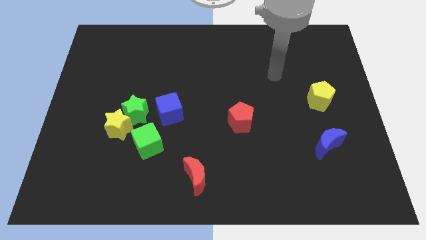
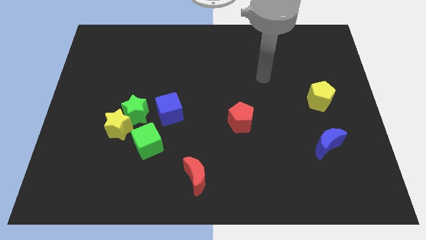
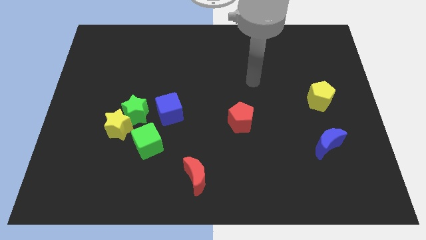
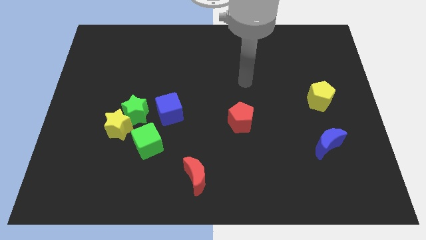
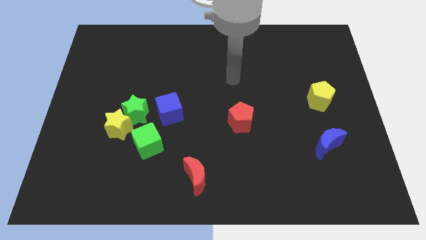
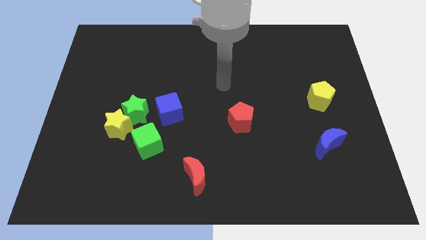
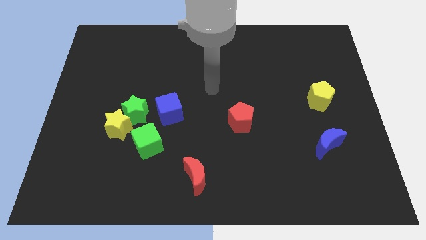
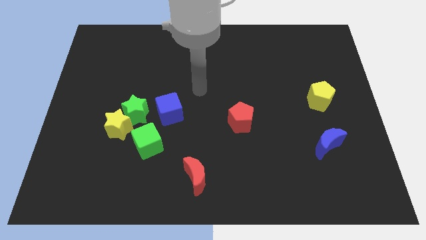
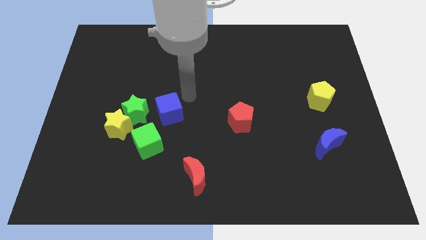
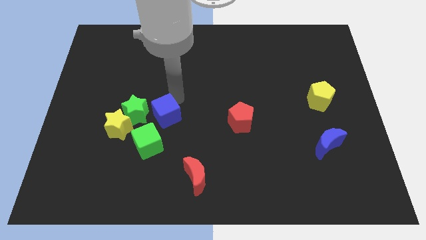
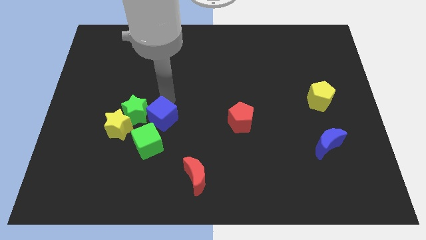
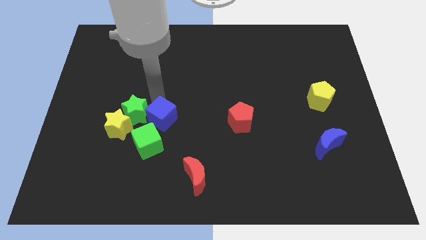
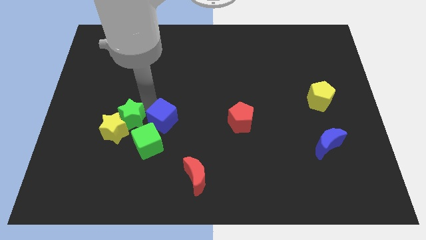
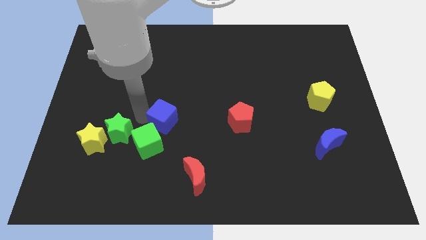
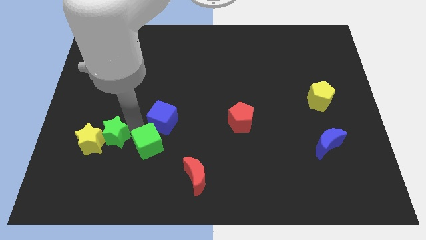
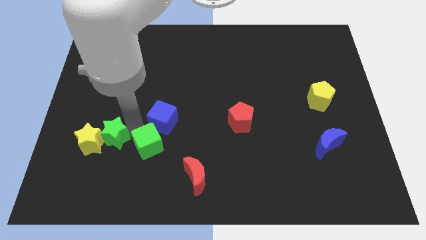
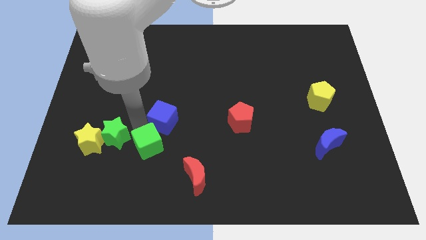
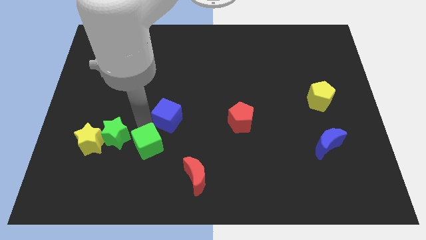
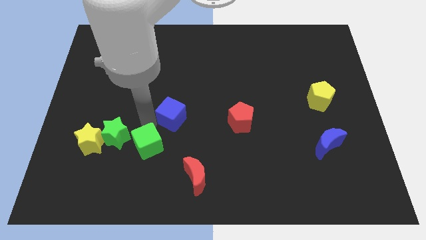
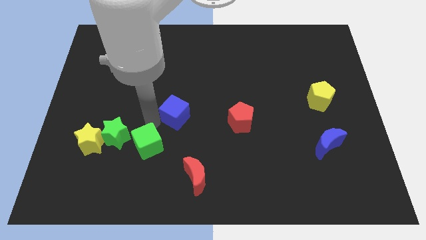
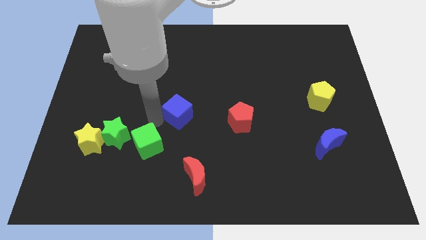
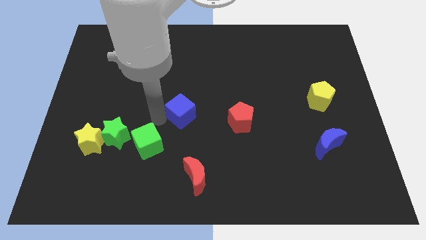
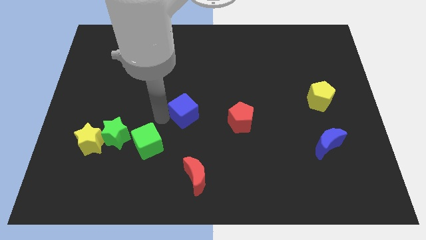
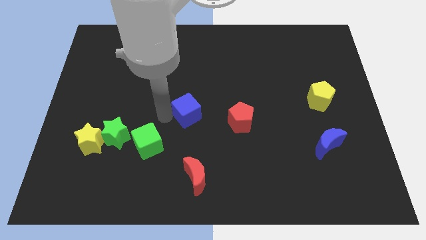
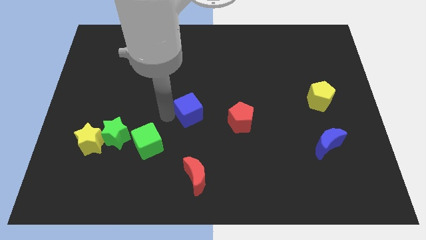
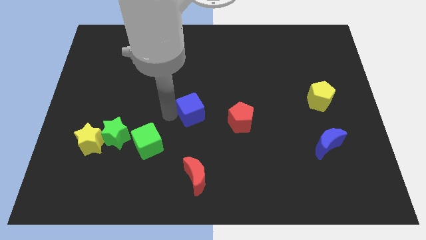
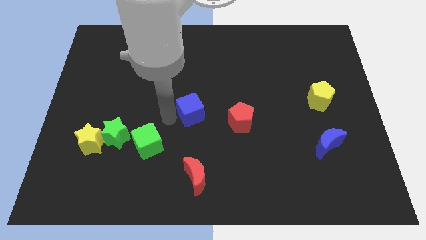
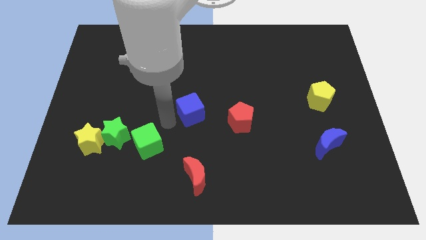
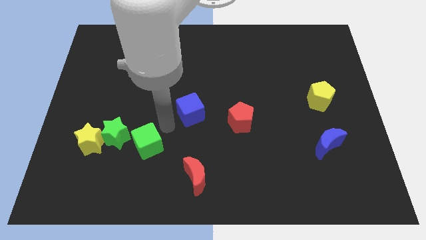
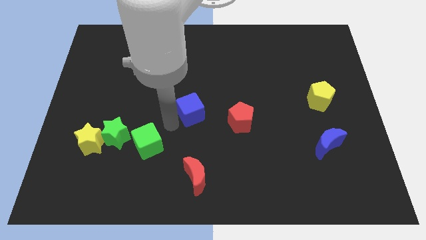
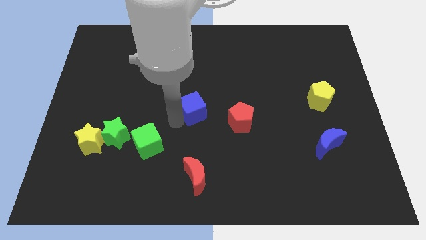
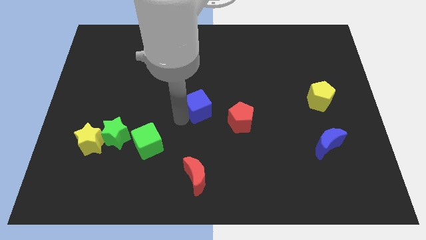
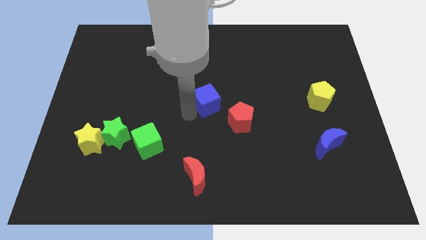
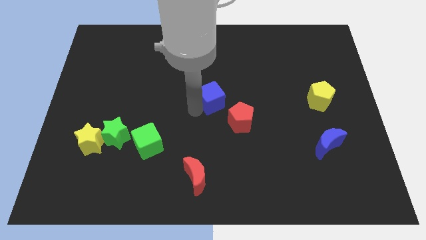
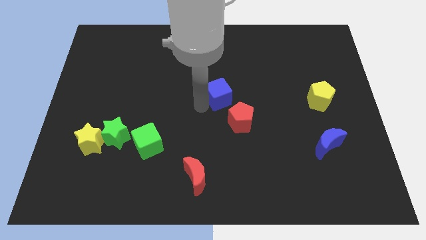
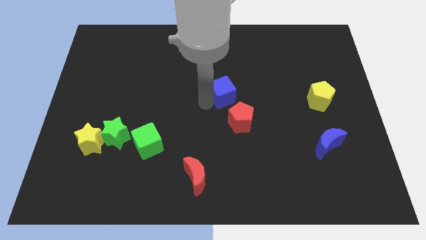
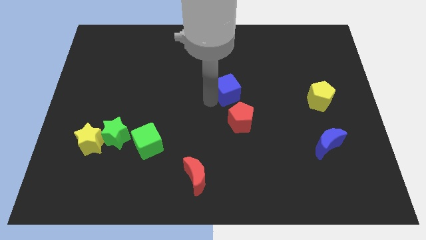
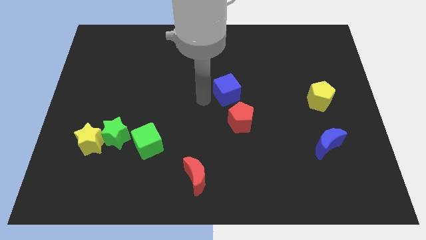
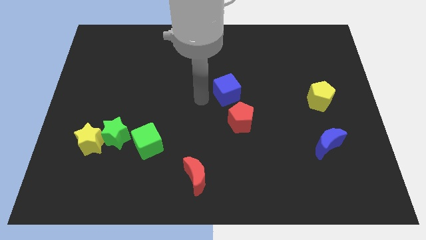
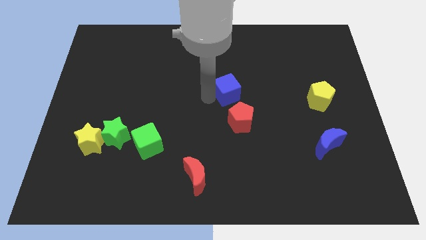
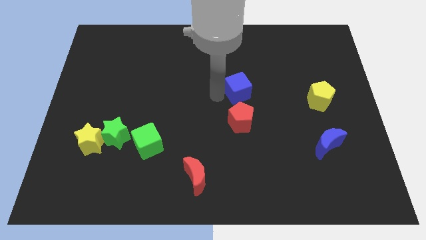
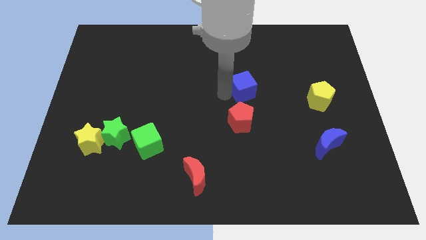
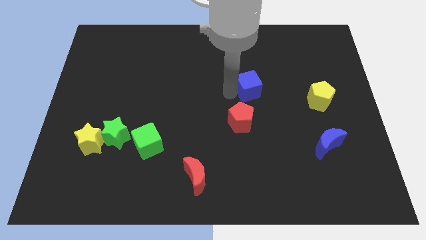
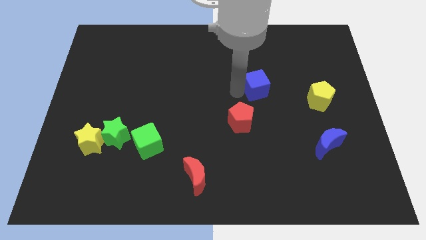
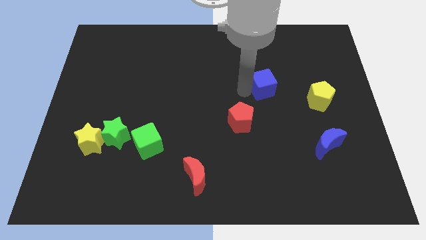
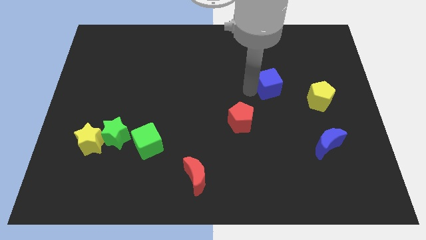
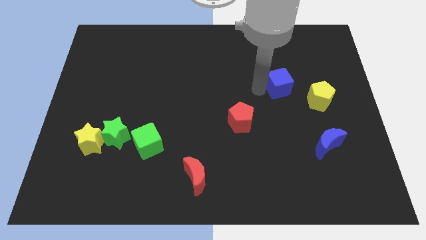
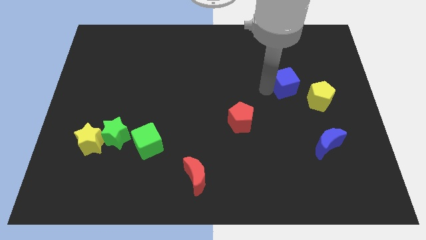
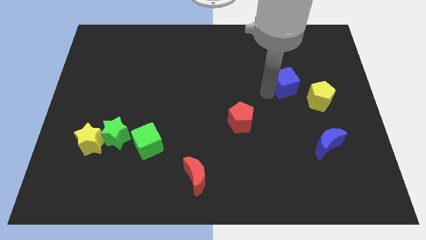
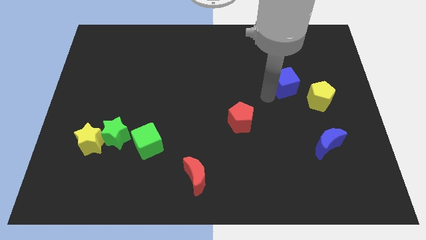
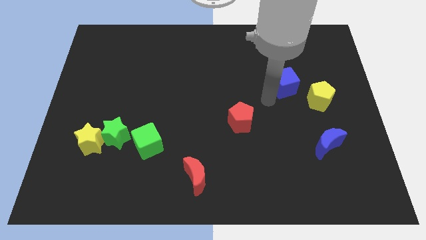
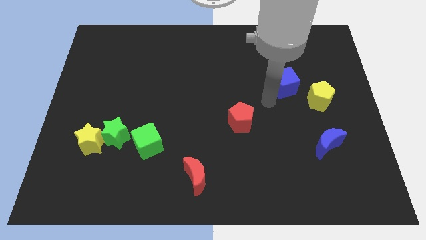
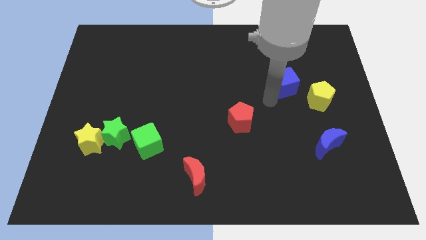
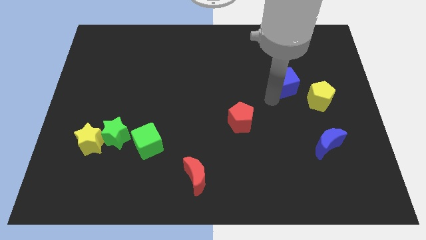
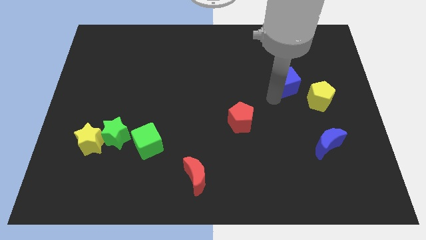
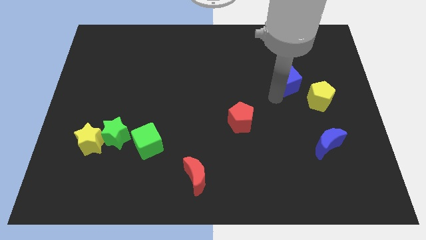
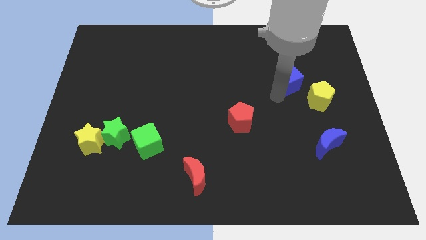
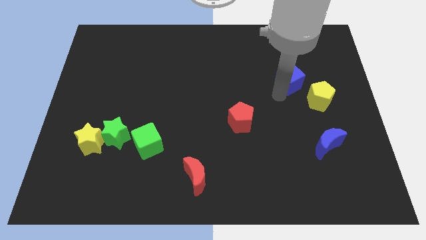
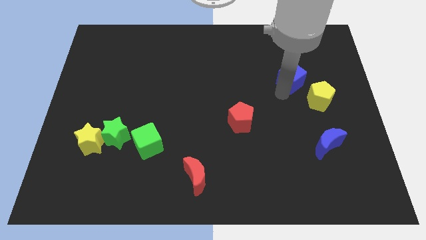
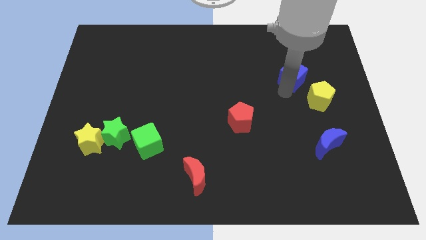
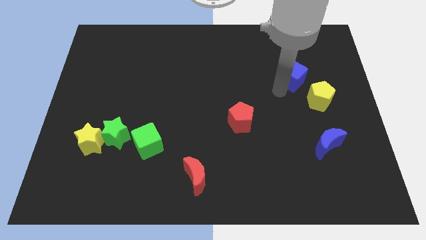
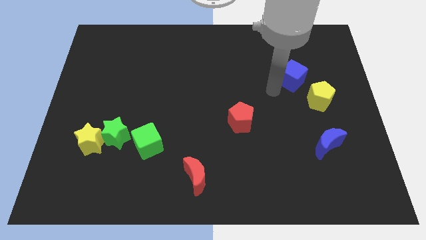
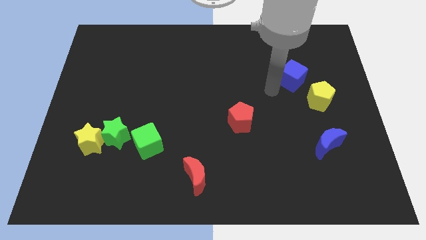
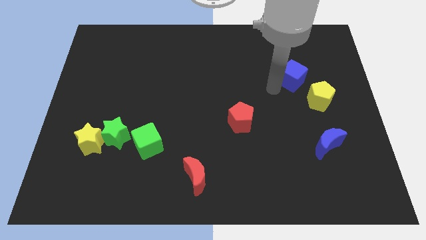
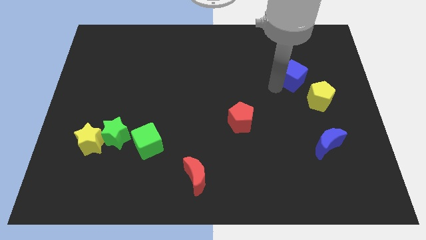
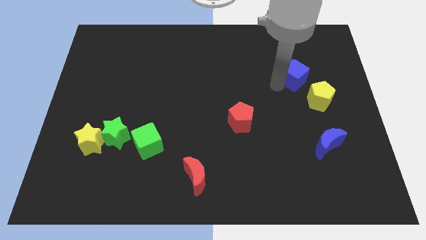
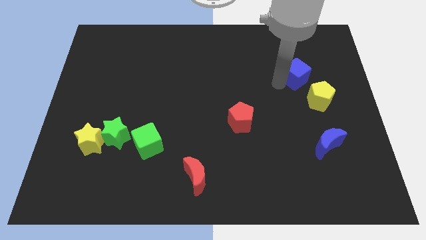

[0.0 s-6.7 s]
push the blue cube to the top side of the yellow pentagon
